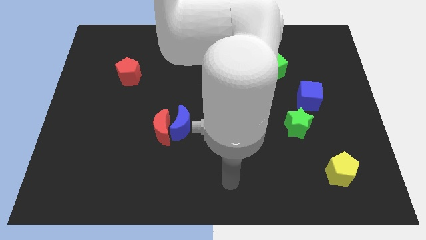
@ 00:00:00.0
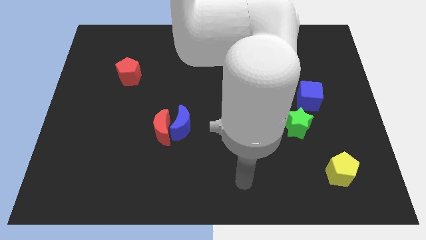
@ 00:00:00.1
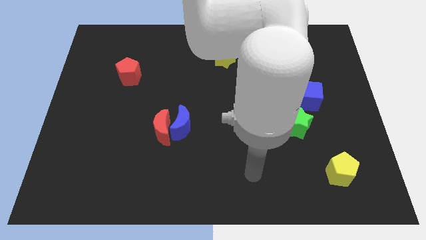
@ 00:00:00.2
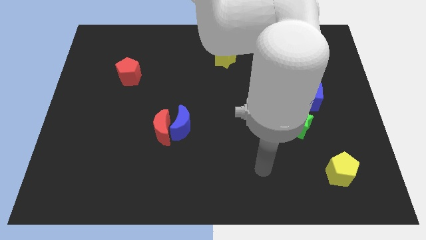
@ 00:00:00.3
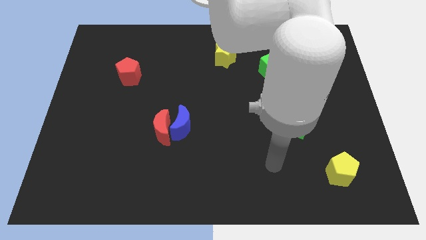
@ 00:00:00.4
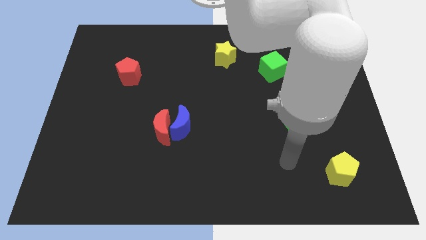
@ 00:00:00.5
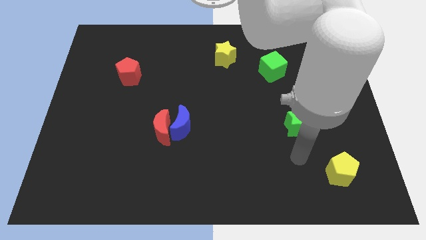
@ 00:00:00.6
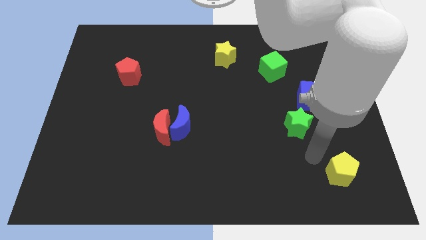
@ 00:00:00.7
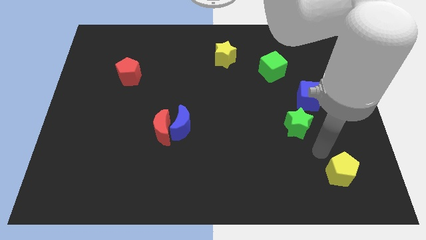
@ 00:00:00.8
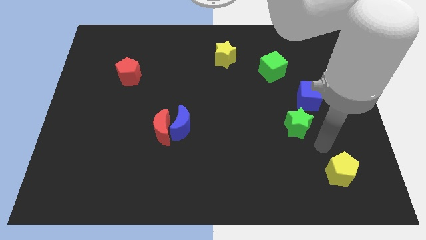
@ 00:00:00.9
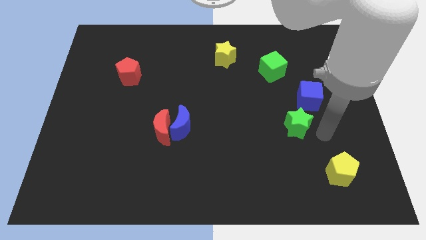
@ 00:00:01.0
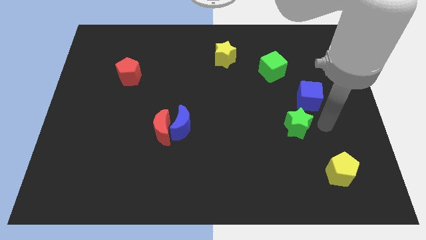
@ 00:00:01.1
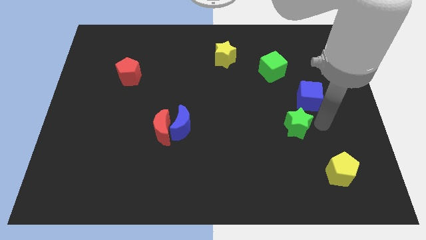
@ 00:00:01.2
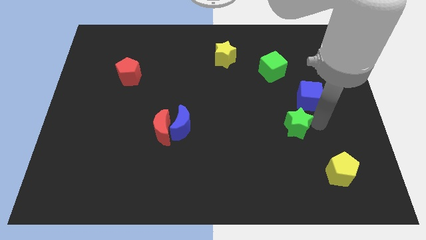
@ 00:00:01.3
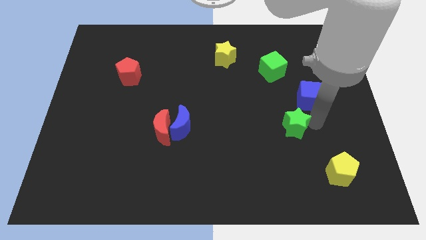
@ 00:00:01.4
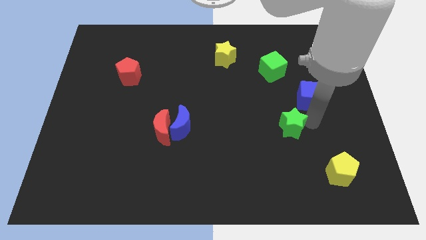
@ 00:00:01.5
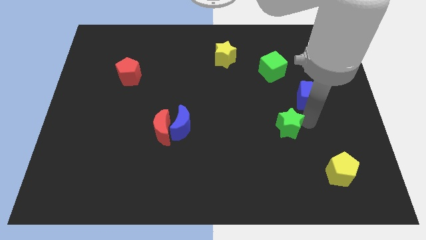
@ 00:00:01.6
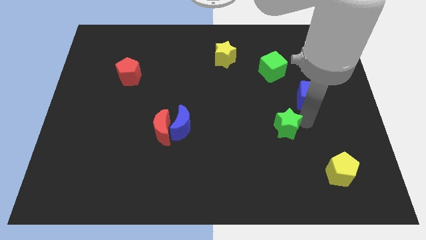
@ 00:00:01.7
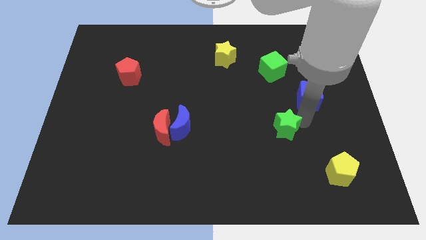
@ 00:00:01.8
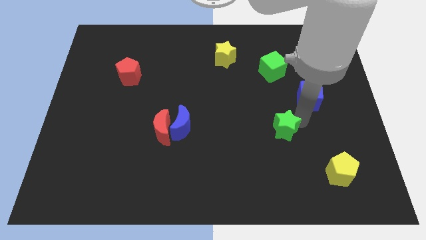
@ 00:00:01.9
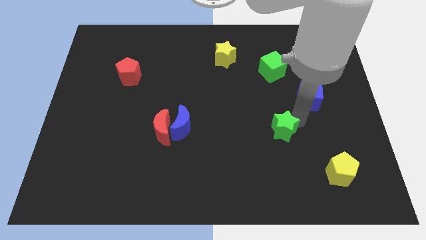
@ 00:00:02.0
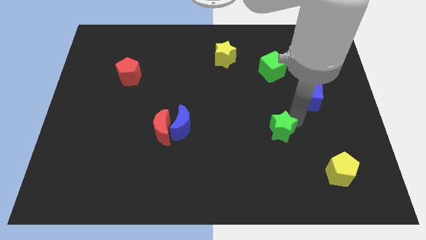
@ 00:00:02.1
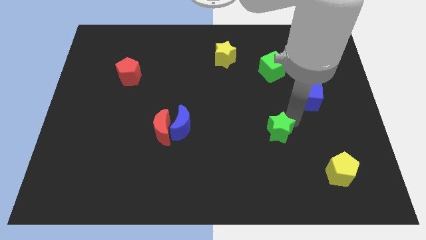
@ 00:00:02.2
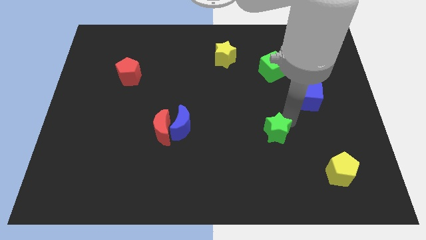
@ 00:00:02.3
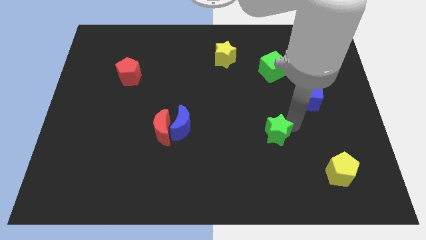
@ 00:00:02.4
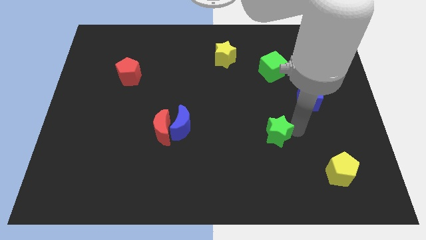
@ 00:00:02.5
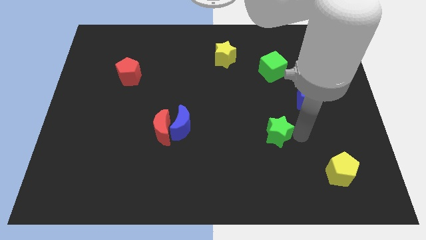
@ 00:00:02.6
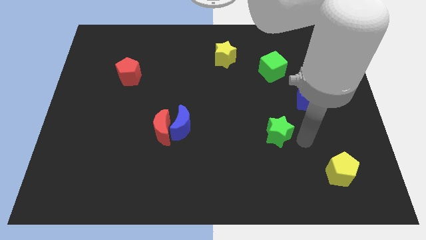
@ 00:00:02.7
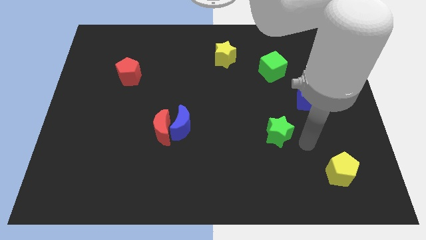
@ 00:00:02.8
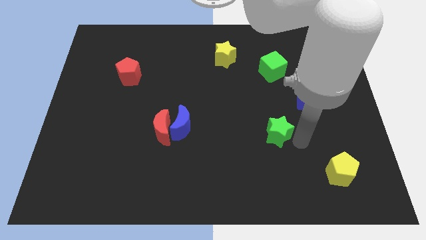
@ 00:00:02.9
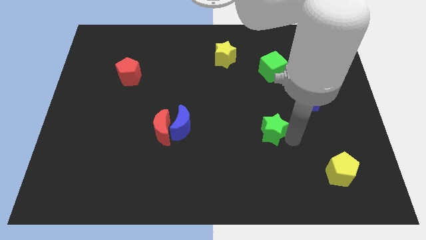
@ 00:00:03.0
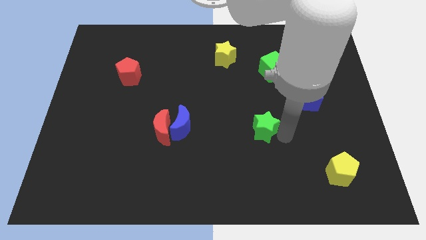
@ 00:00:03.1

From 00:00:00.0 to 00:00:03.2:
push the green star a bit to the left

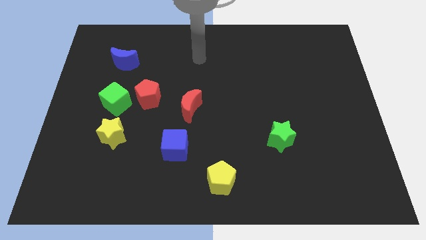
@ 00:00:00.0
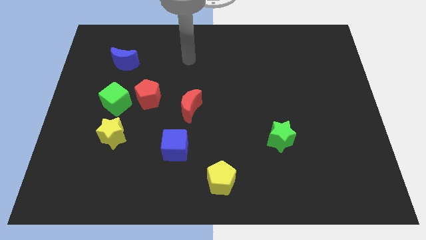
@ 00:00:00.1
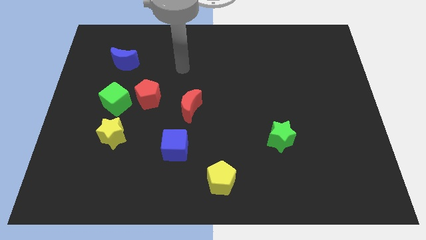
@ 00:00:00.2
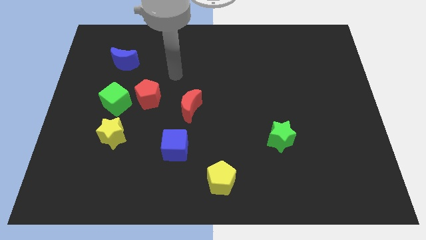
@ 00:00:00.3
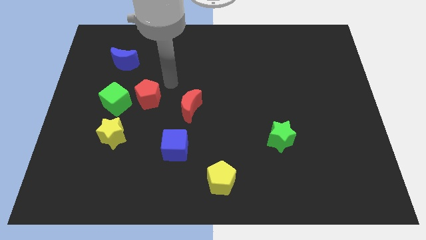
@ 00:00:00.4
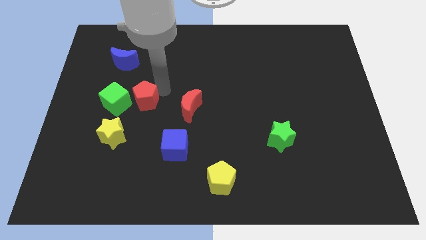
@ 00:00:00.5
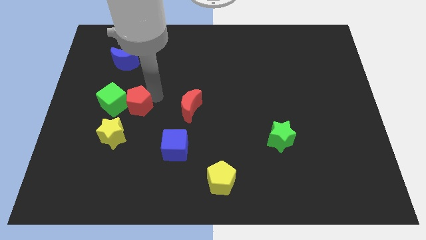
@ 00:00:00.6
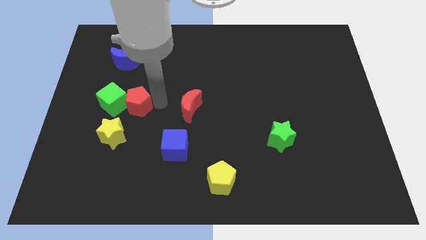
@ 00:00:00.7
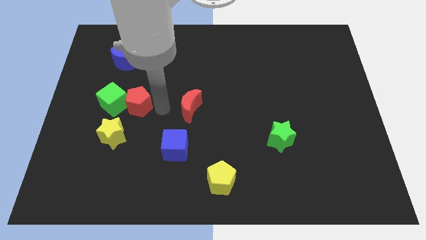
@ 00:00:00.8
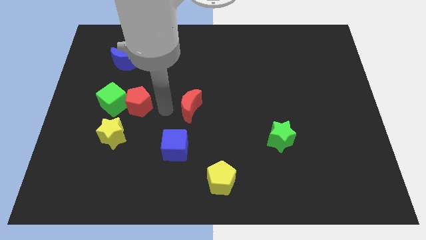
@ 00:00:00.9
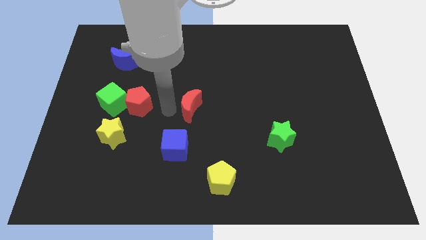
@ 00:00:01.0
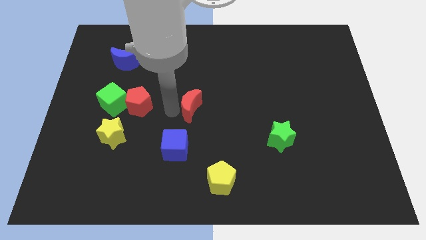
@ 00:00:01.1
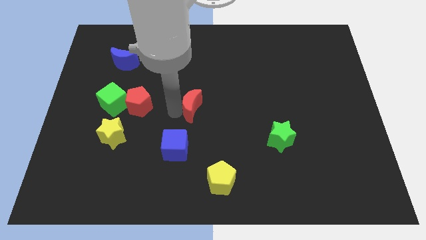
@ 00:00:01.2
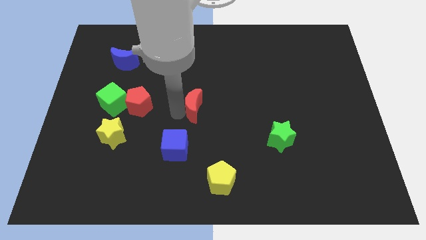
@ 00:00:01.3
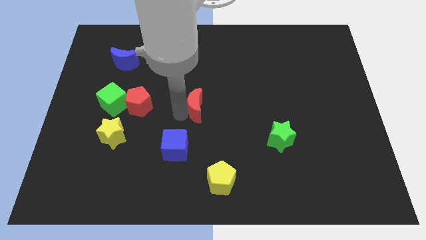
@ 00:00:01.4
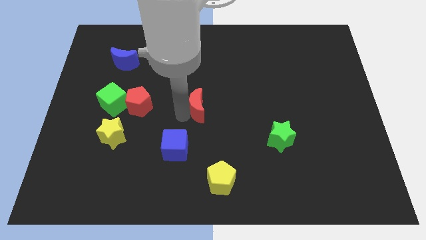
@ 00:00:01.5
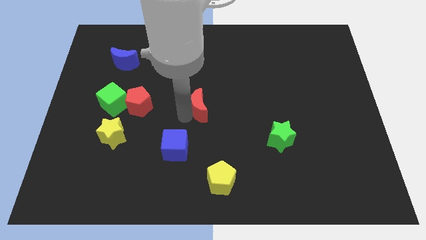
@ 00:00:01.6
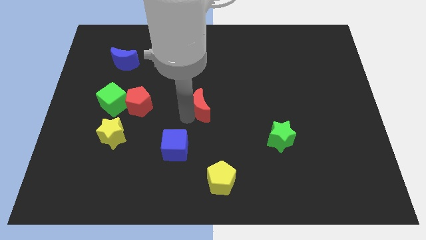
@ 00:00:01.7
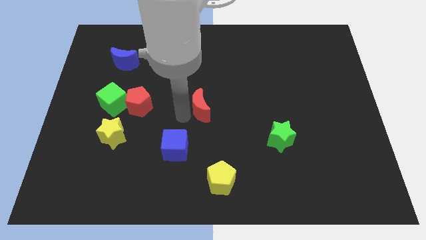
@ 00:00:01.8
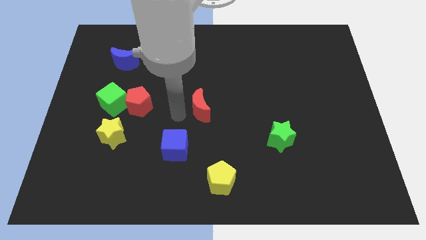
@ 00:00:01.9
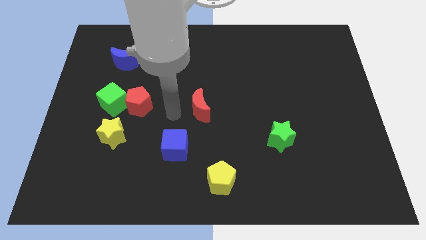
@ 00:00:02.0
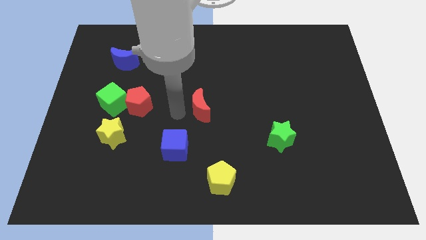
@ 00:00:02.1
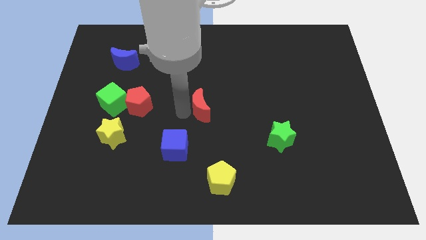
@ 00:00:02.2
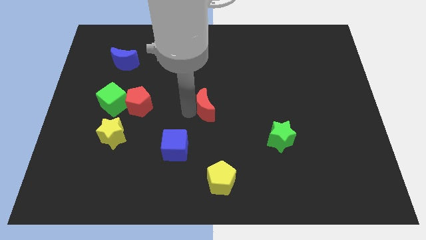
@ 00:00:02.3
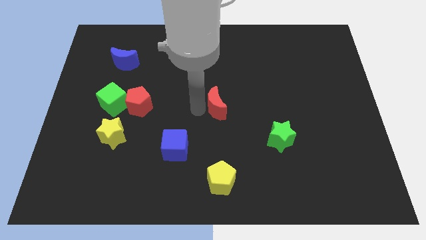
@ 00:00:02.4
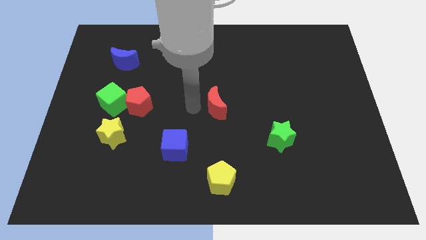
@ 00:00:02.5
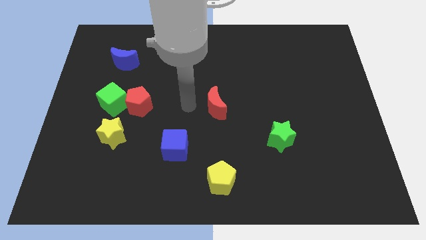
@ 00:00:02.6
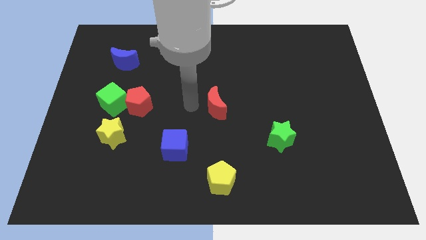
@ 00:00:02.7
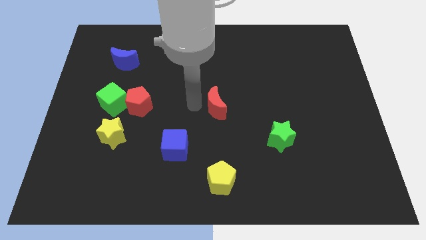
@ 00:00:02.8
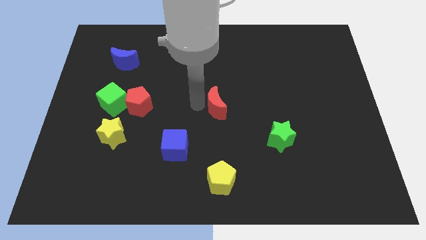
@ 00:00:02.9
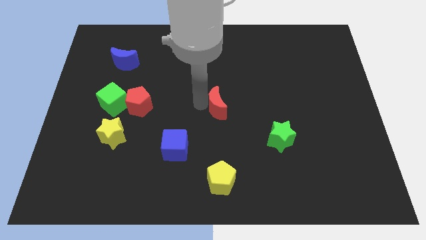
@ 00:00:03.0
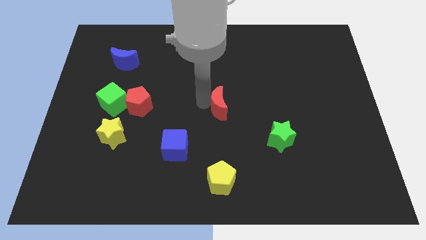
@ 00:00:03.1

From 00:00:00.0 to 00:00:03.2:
push the red moon to the right a bit

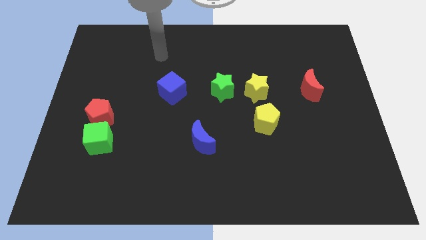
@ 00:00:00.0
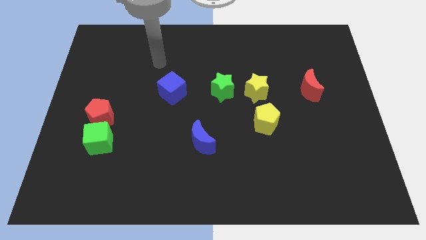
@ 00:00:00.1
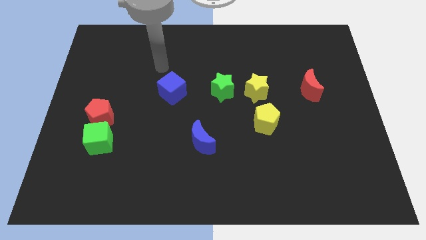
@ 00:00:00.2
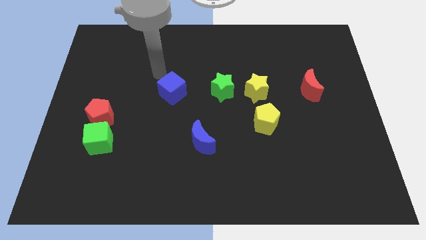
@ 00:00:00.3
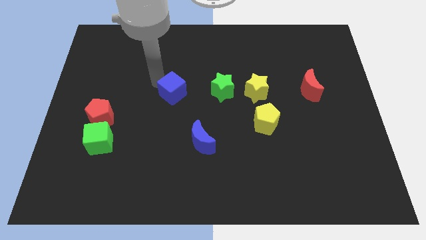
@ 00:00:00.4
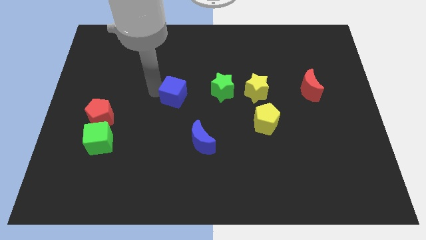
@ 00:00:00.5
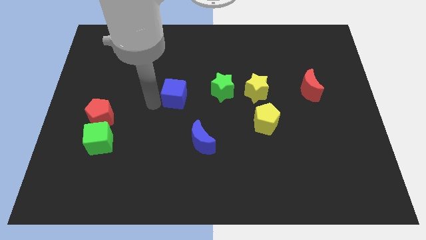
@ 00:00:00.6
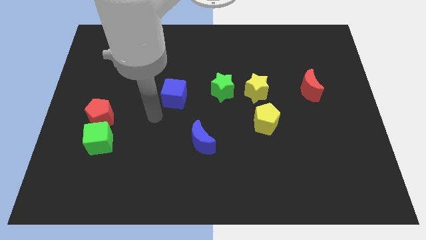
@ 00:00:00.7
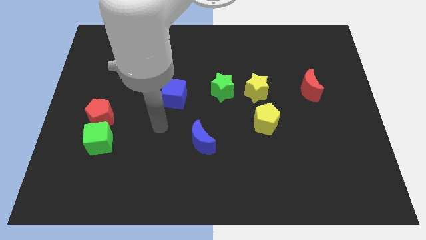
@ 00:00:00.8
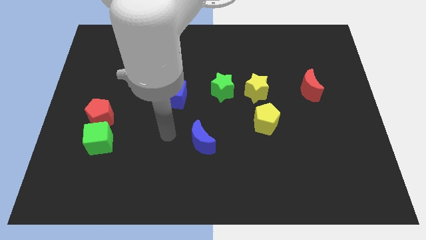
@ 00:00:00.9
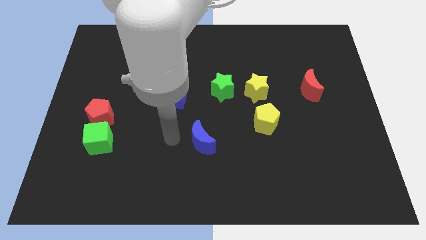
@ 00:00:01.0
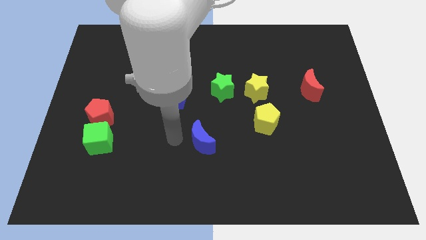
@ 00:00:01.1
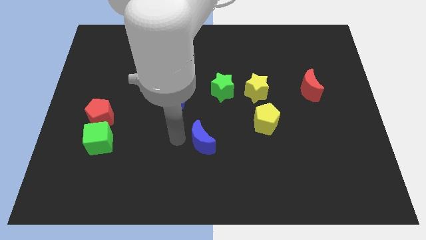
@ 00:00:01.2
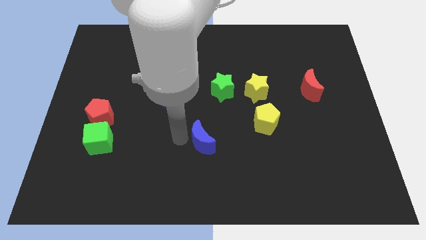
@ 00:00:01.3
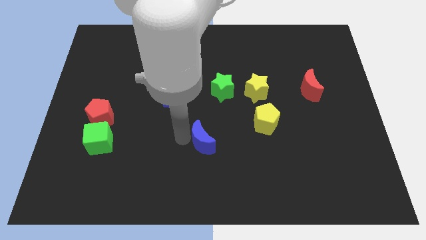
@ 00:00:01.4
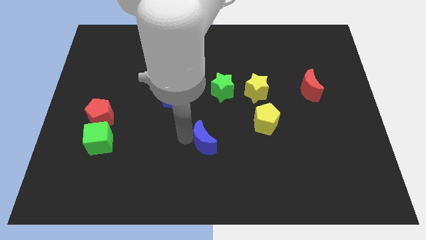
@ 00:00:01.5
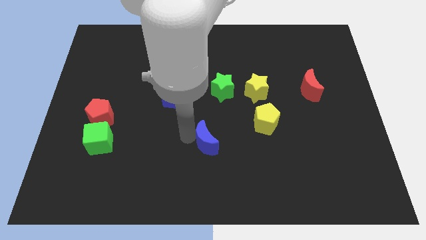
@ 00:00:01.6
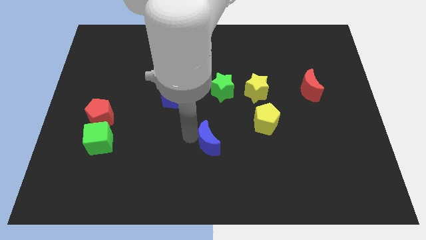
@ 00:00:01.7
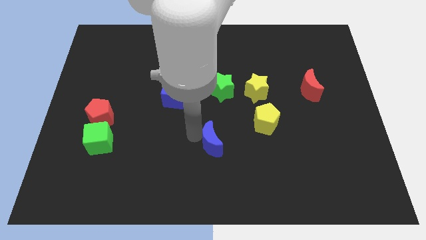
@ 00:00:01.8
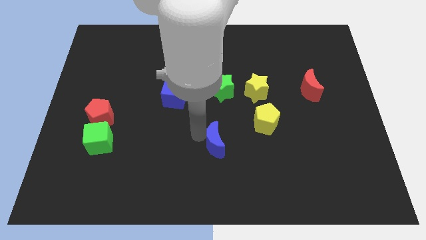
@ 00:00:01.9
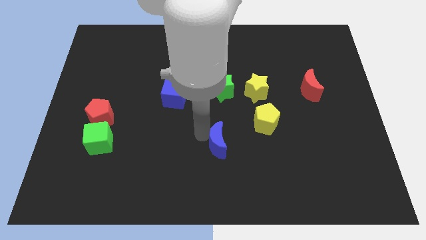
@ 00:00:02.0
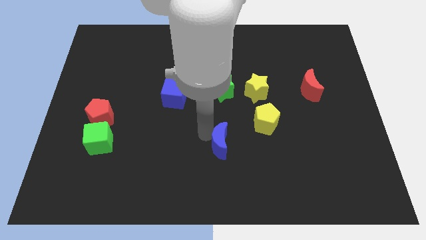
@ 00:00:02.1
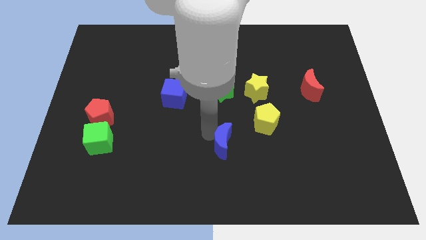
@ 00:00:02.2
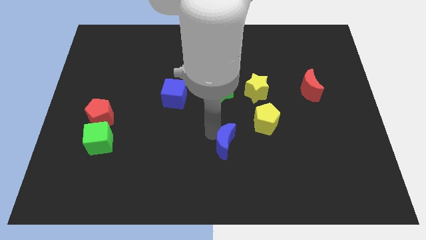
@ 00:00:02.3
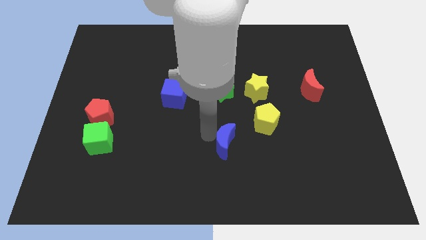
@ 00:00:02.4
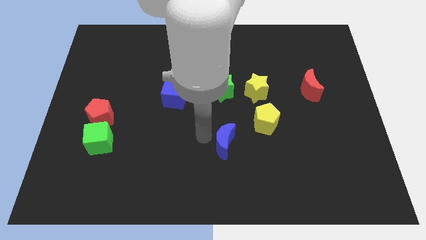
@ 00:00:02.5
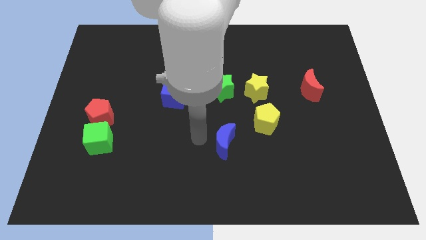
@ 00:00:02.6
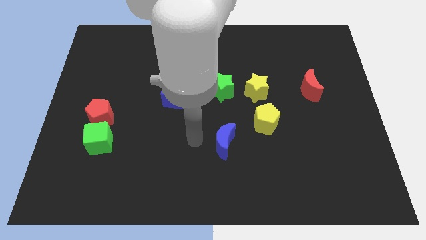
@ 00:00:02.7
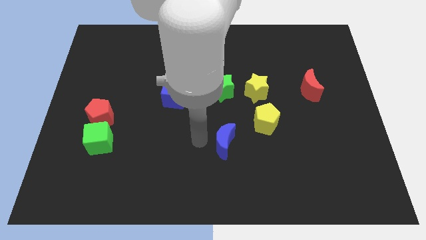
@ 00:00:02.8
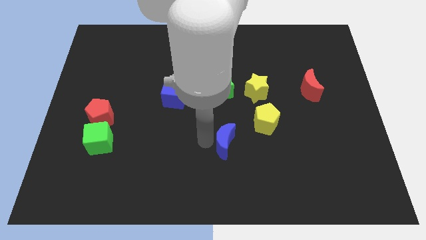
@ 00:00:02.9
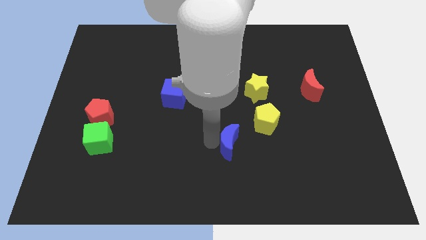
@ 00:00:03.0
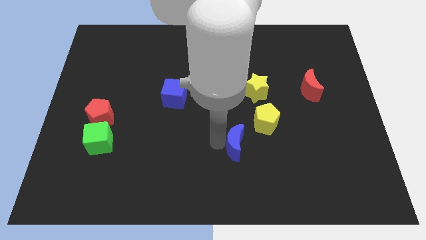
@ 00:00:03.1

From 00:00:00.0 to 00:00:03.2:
slide the blue moon somewhat right
